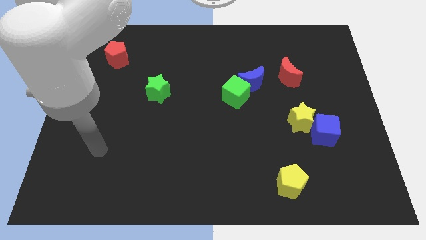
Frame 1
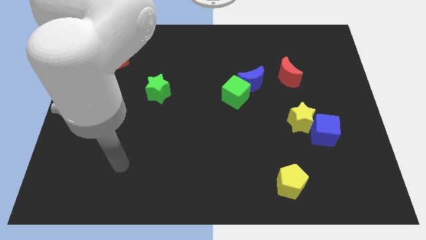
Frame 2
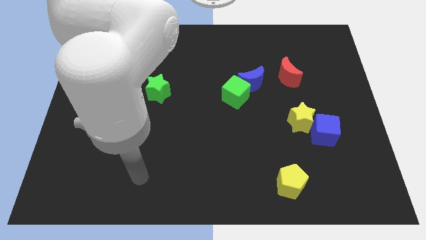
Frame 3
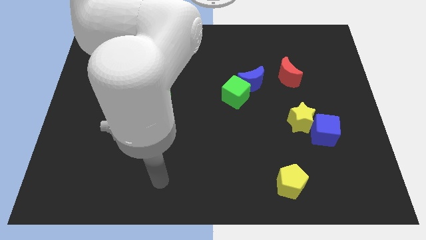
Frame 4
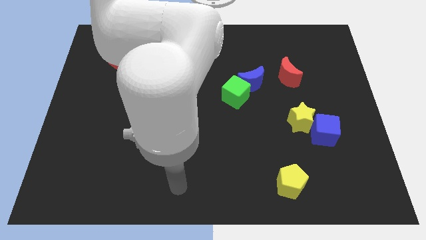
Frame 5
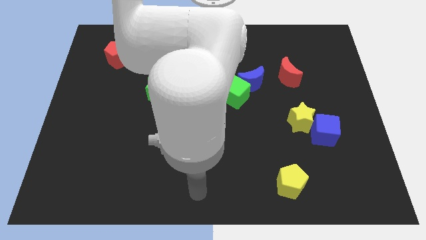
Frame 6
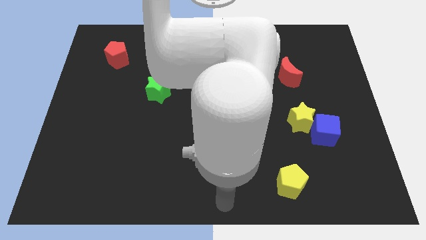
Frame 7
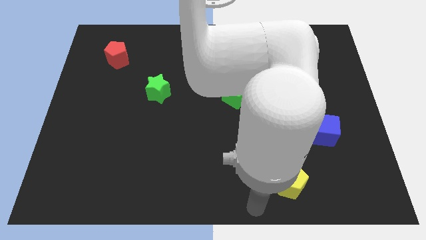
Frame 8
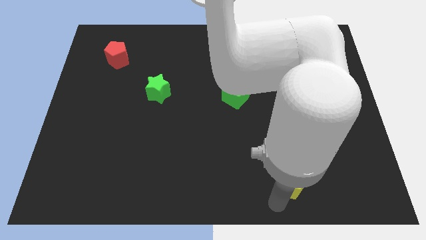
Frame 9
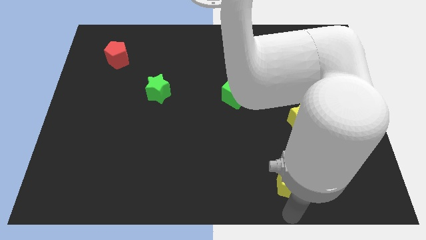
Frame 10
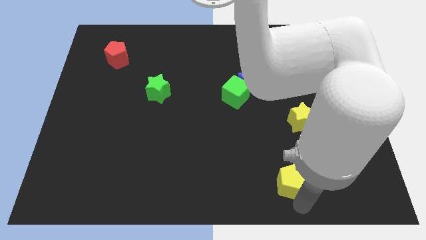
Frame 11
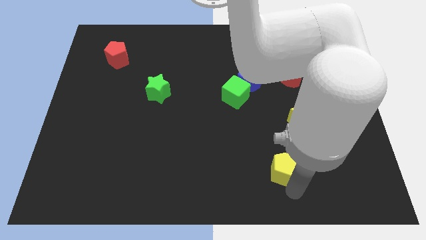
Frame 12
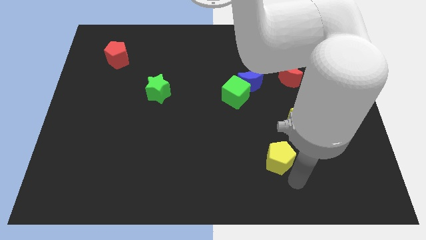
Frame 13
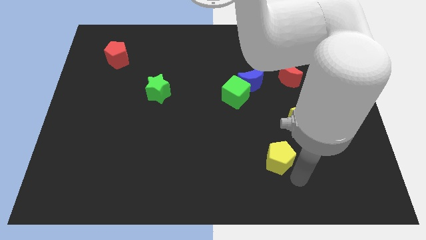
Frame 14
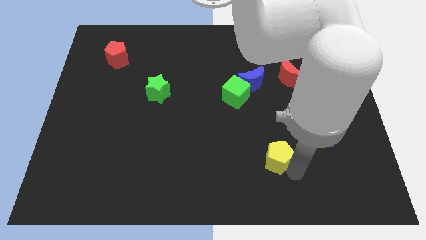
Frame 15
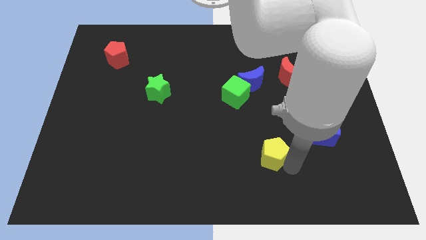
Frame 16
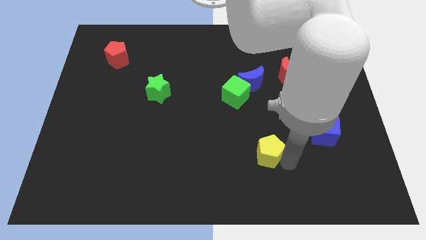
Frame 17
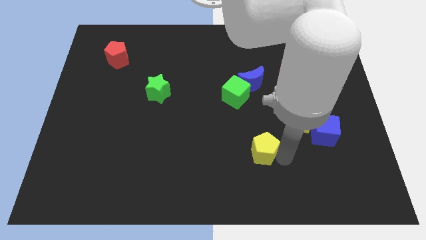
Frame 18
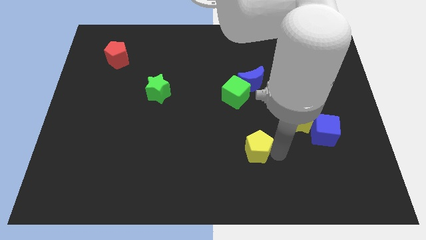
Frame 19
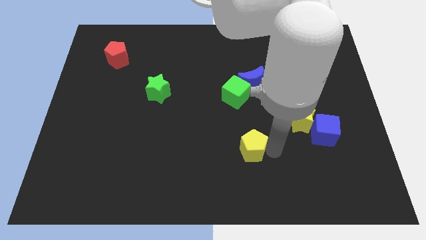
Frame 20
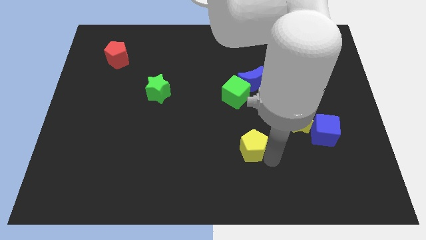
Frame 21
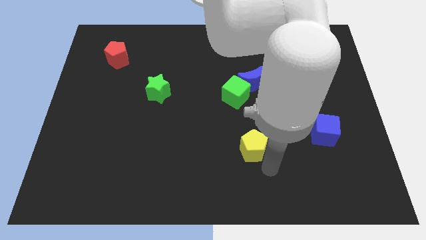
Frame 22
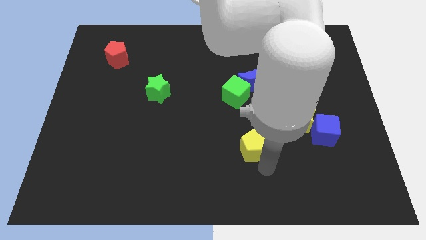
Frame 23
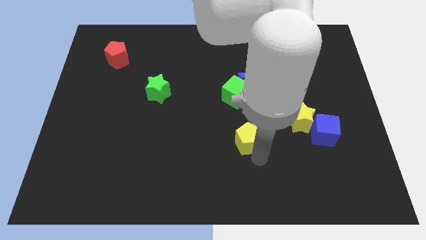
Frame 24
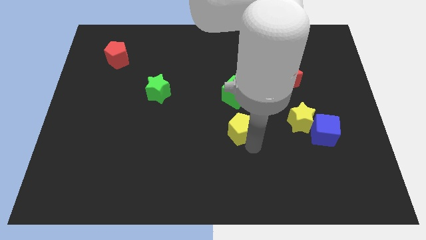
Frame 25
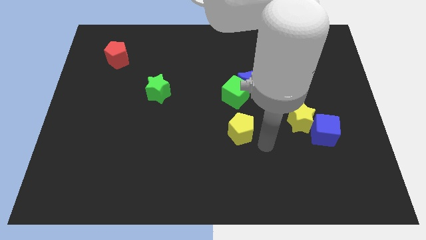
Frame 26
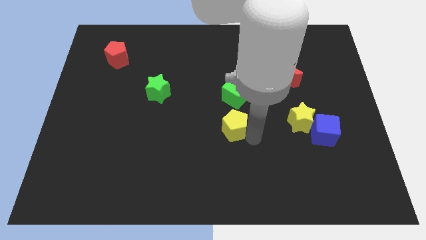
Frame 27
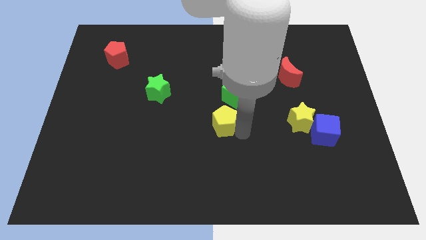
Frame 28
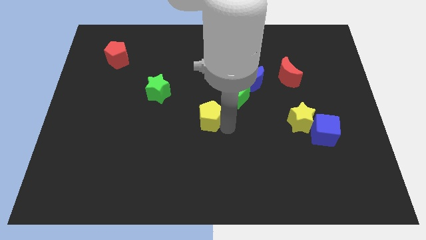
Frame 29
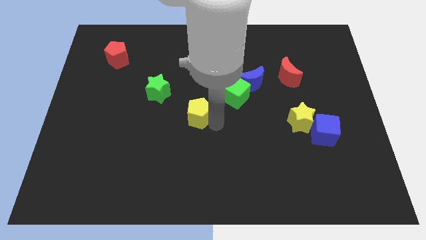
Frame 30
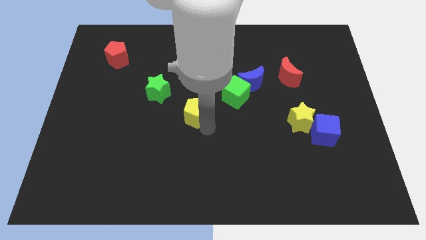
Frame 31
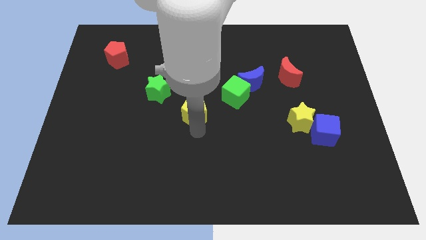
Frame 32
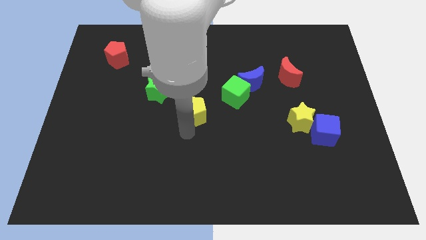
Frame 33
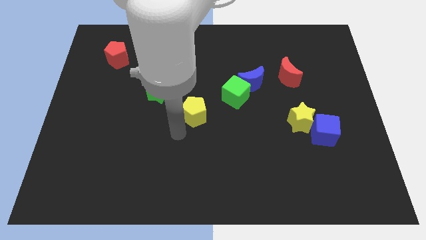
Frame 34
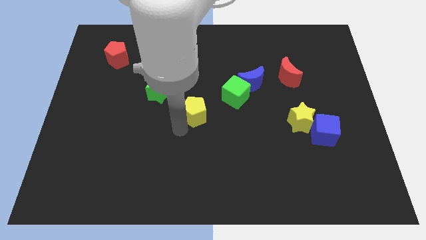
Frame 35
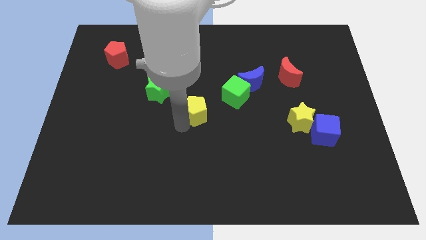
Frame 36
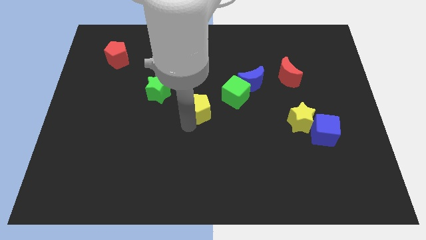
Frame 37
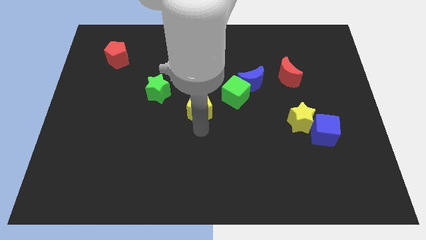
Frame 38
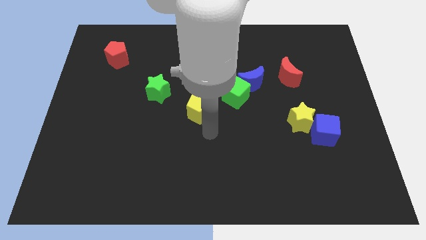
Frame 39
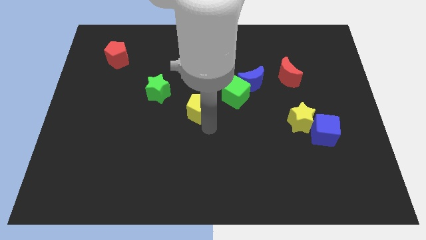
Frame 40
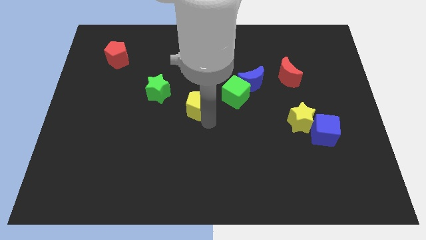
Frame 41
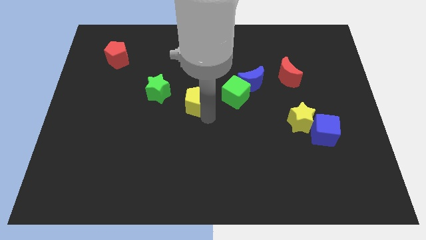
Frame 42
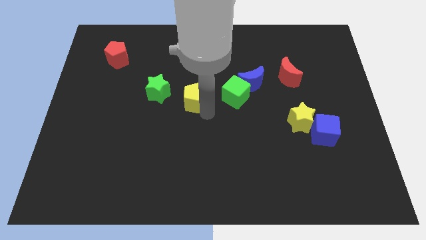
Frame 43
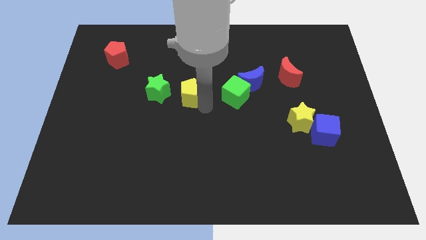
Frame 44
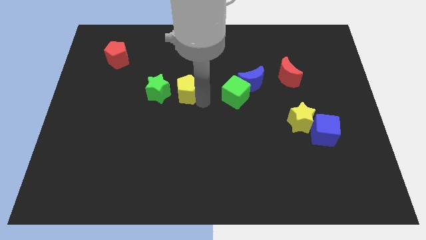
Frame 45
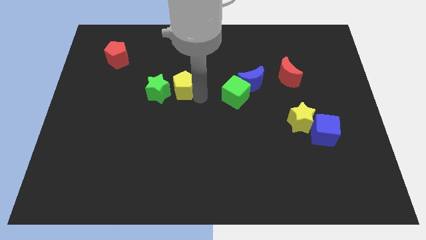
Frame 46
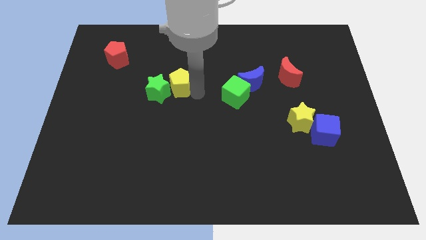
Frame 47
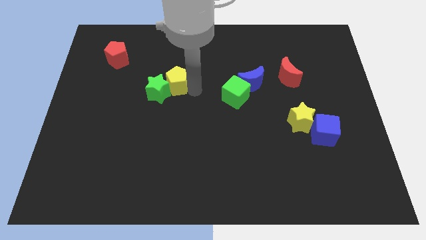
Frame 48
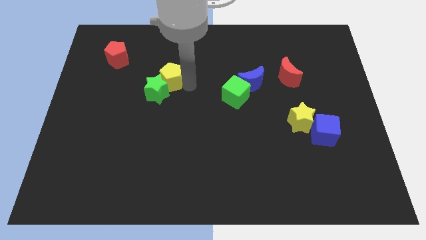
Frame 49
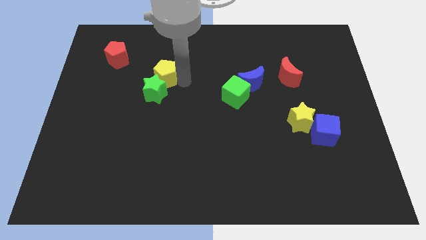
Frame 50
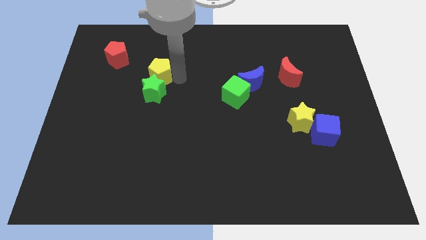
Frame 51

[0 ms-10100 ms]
slide the yellow pentagon diagonally up and to the left of the green star

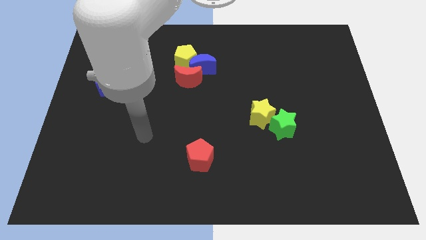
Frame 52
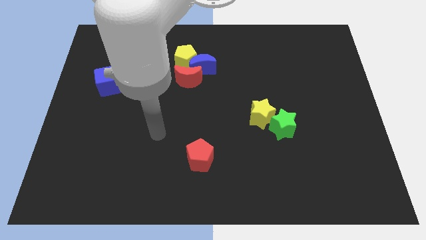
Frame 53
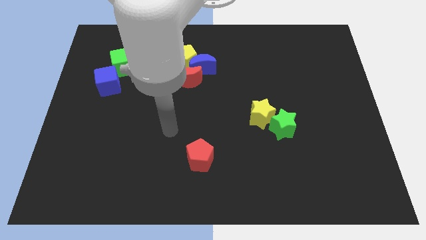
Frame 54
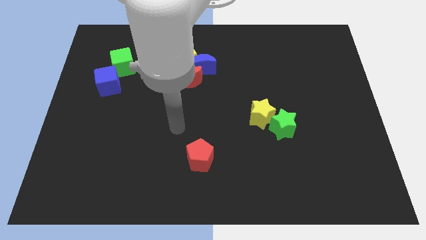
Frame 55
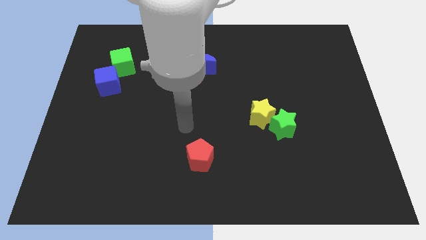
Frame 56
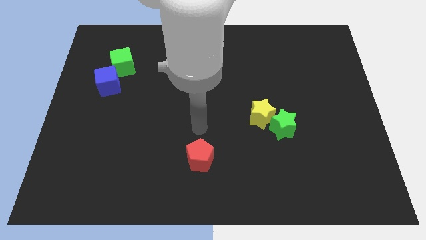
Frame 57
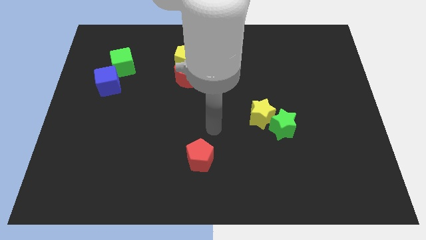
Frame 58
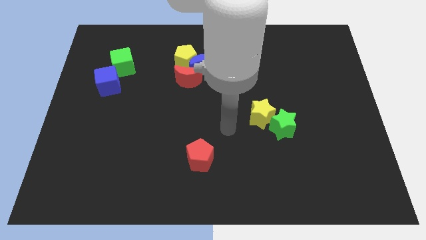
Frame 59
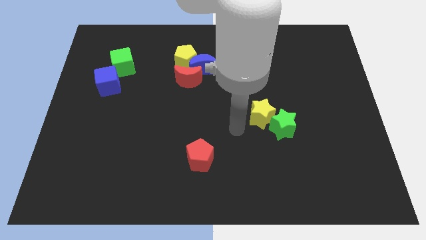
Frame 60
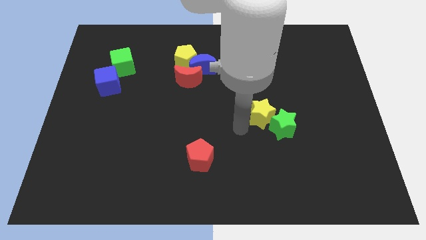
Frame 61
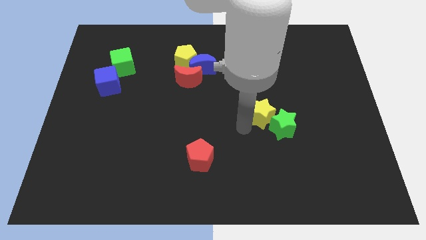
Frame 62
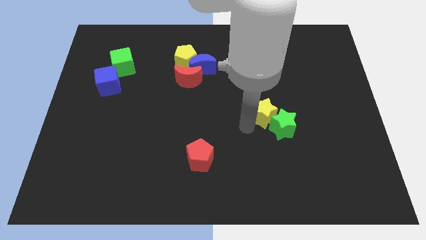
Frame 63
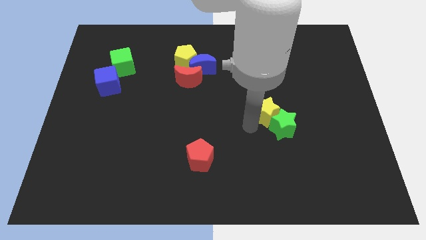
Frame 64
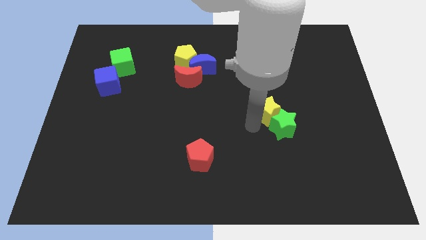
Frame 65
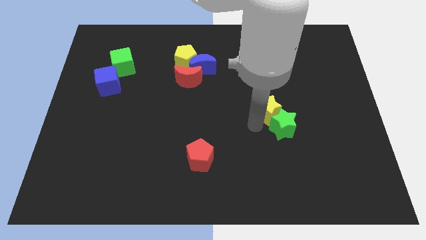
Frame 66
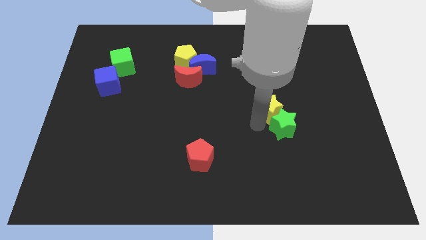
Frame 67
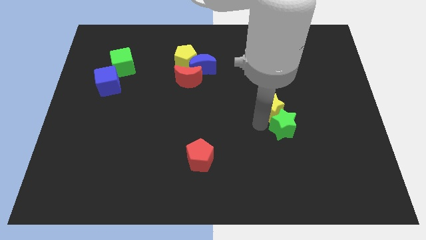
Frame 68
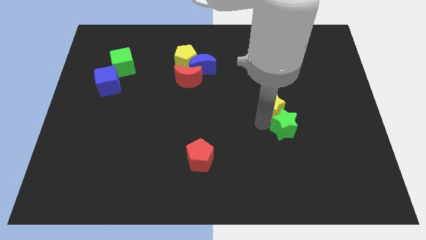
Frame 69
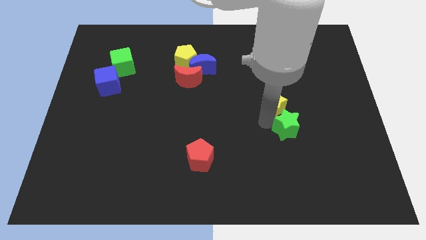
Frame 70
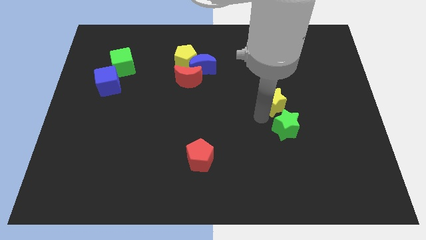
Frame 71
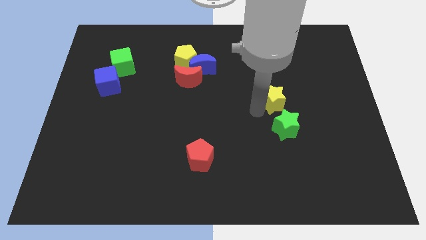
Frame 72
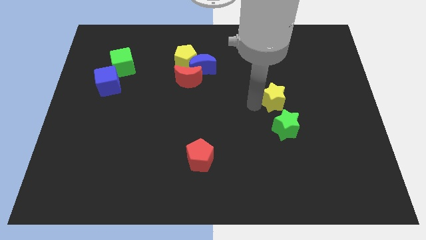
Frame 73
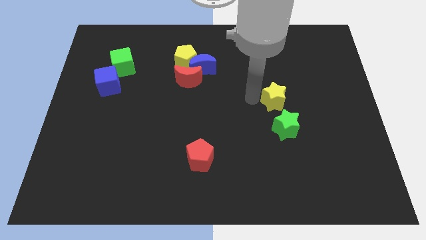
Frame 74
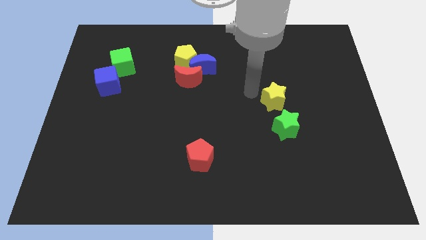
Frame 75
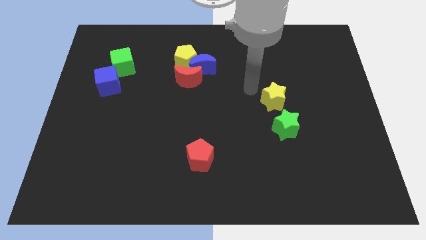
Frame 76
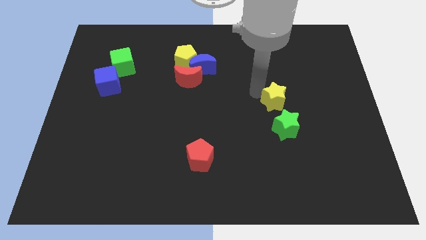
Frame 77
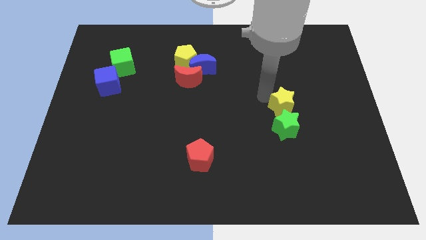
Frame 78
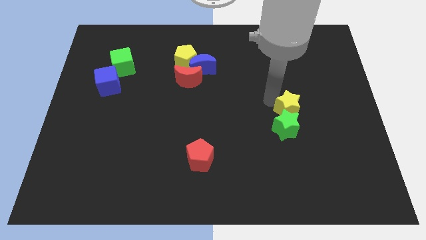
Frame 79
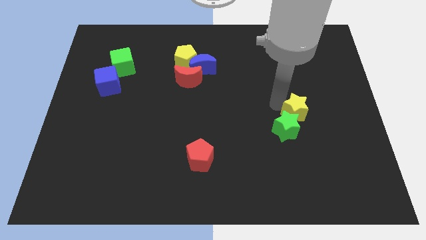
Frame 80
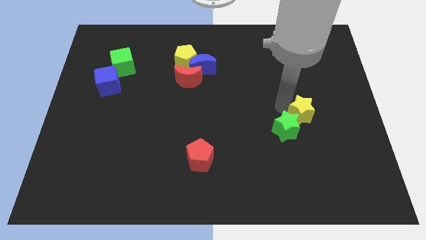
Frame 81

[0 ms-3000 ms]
push the yellow star just right of the green star
